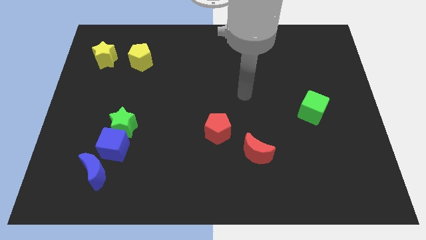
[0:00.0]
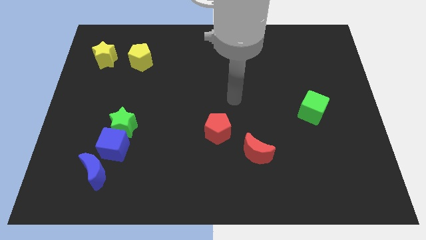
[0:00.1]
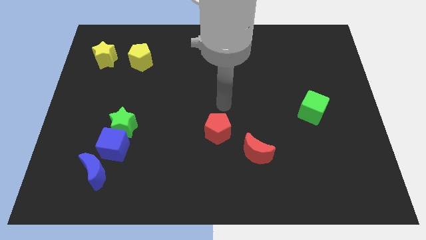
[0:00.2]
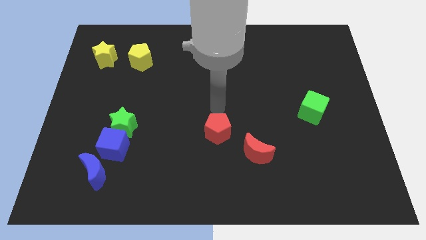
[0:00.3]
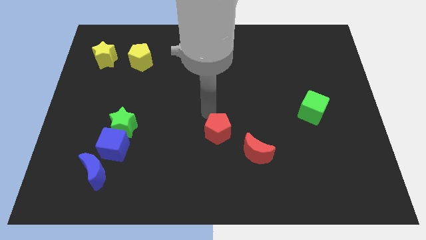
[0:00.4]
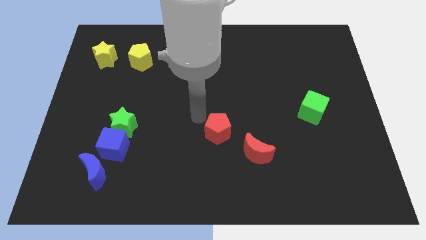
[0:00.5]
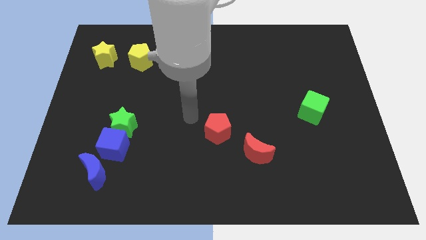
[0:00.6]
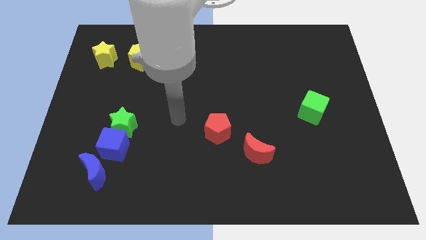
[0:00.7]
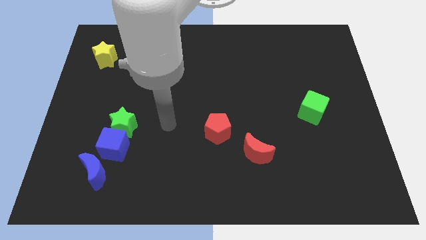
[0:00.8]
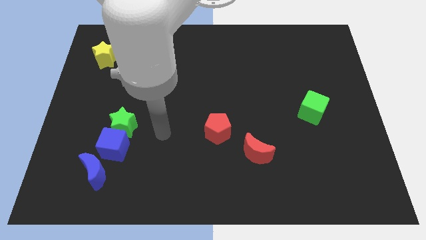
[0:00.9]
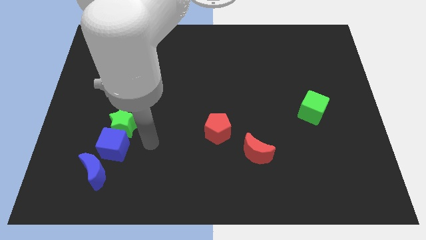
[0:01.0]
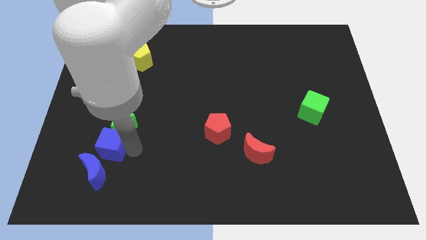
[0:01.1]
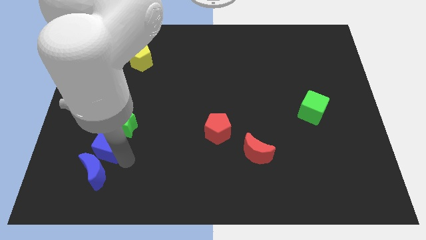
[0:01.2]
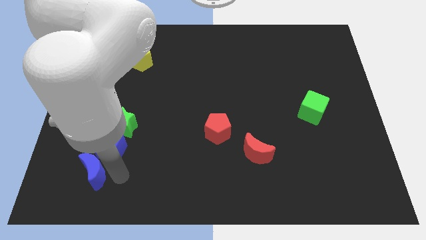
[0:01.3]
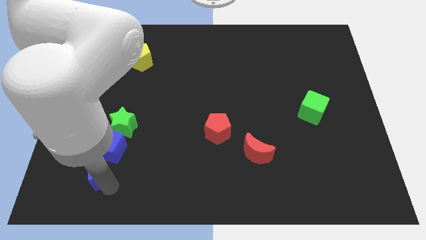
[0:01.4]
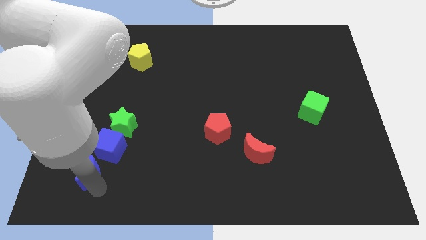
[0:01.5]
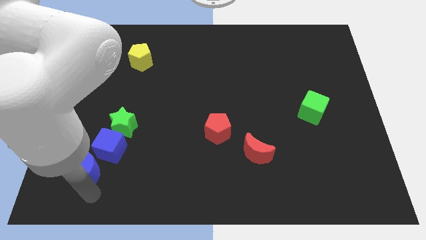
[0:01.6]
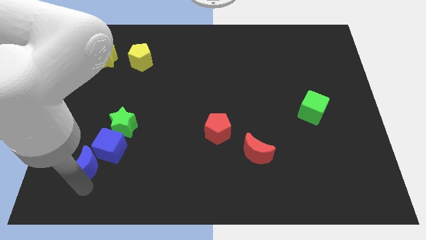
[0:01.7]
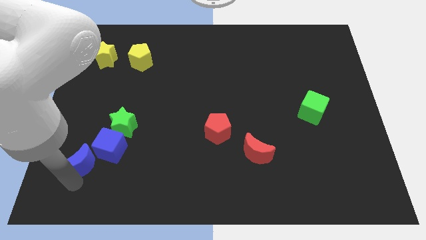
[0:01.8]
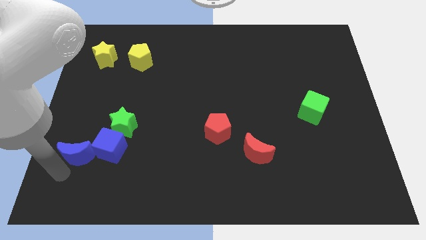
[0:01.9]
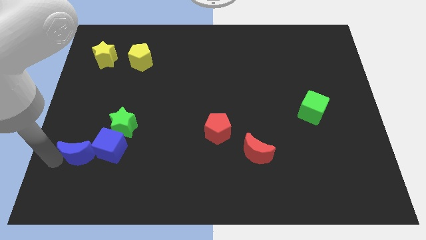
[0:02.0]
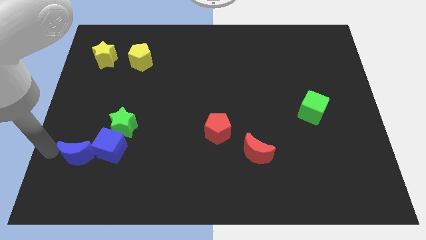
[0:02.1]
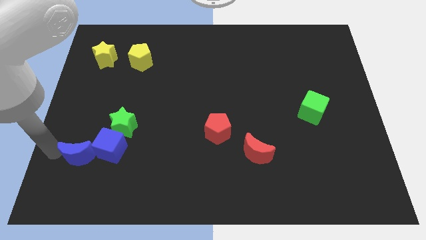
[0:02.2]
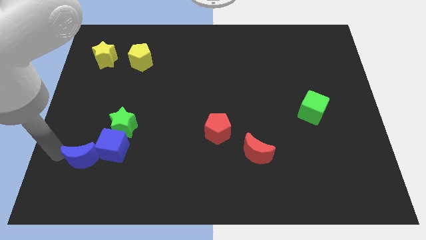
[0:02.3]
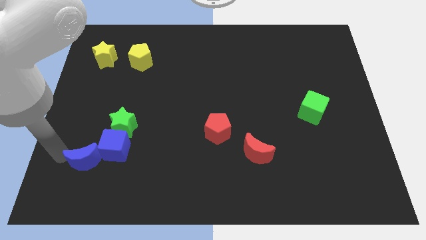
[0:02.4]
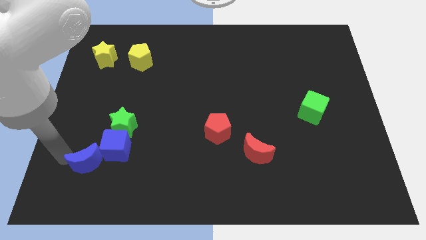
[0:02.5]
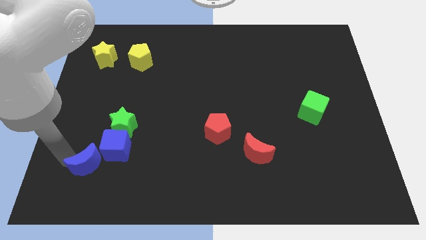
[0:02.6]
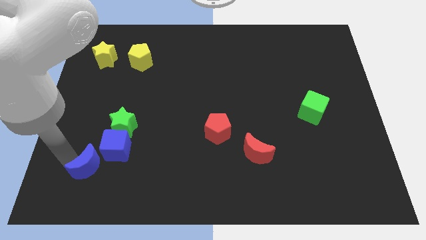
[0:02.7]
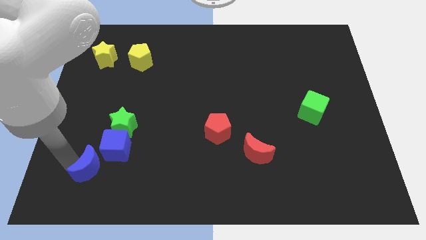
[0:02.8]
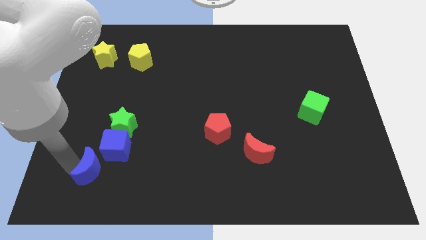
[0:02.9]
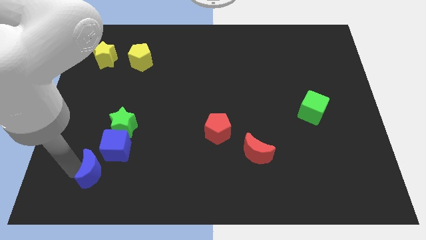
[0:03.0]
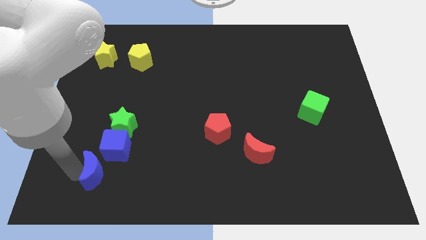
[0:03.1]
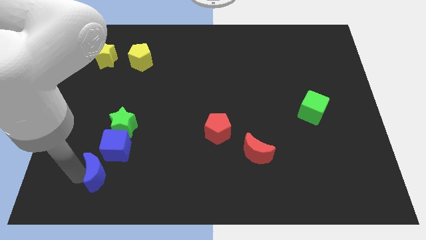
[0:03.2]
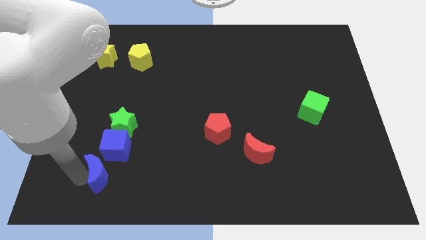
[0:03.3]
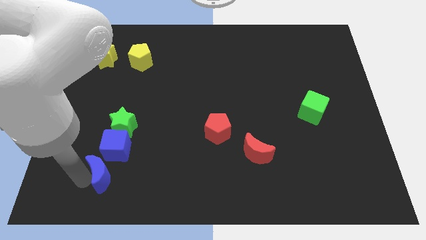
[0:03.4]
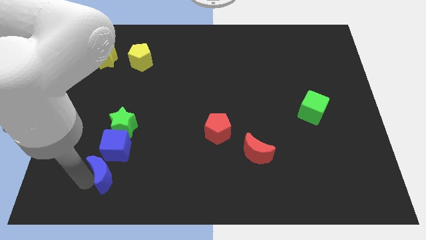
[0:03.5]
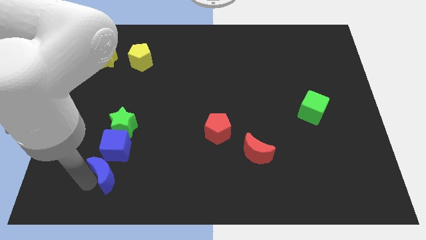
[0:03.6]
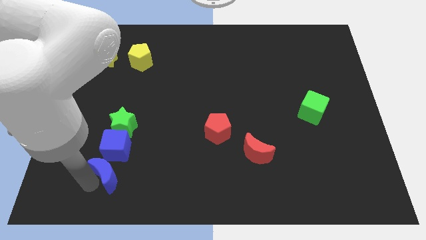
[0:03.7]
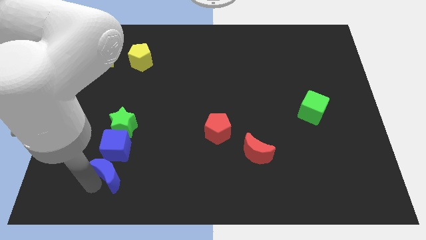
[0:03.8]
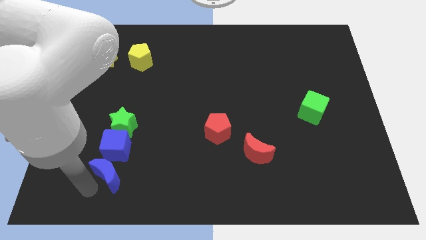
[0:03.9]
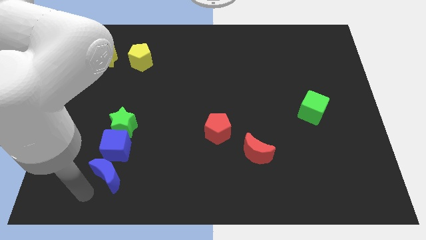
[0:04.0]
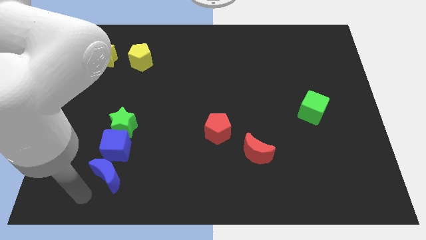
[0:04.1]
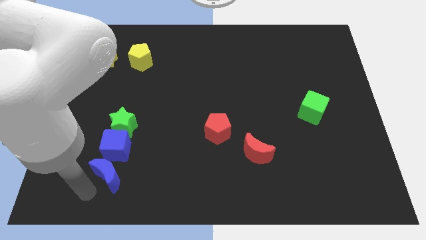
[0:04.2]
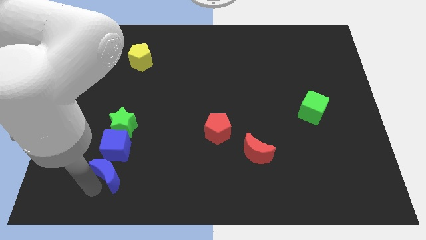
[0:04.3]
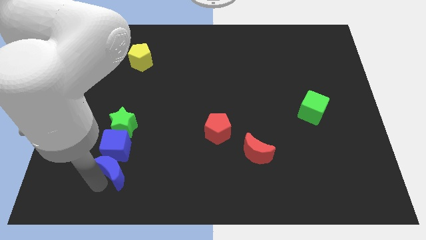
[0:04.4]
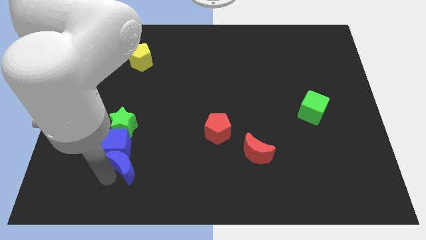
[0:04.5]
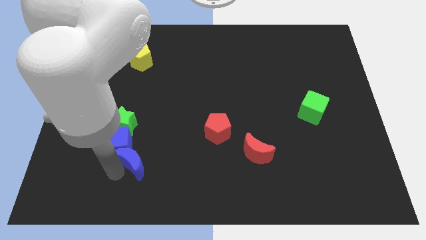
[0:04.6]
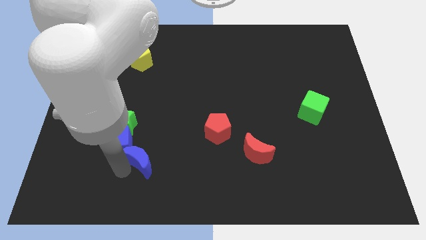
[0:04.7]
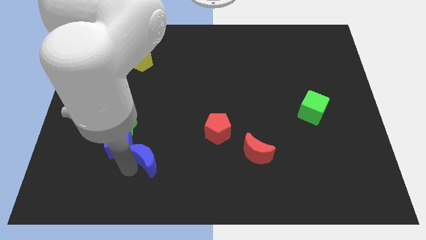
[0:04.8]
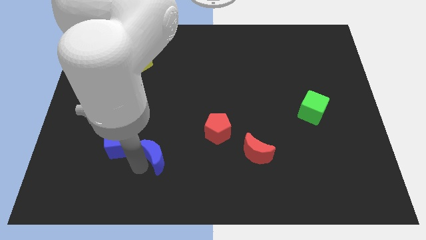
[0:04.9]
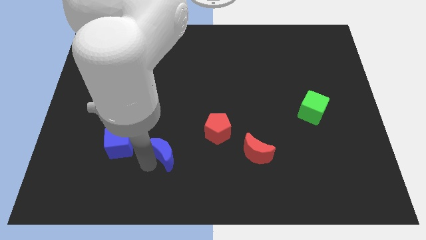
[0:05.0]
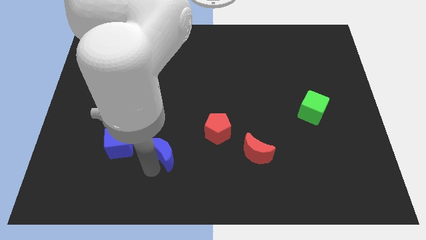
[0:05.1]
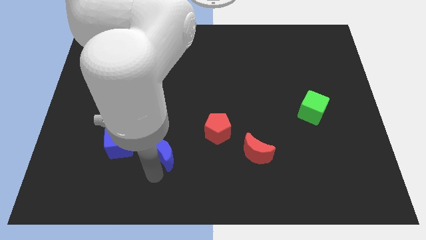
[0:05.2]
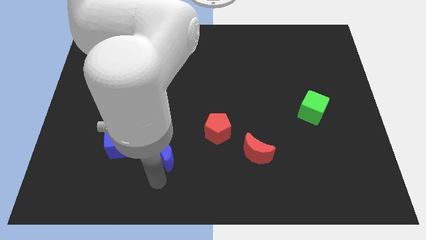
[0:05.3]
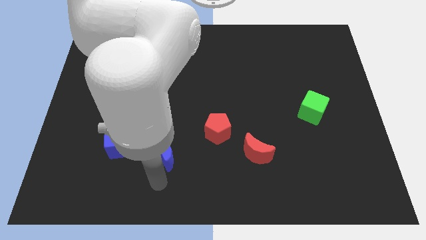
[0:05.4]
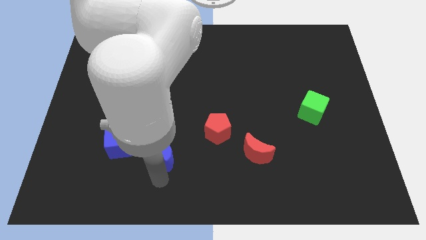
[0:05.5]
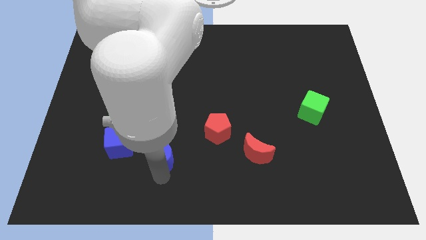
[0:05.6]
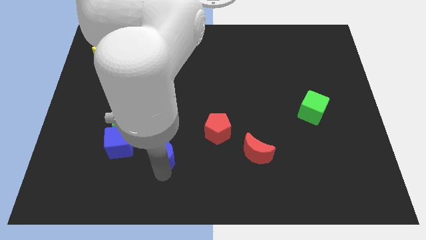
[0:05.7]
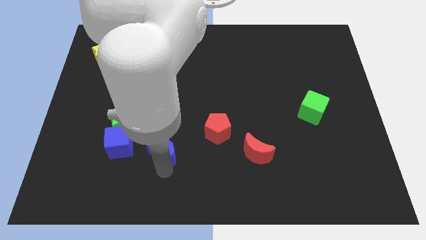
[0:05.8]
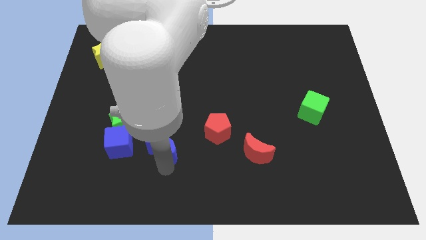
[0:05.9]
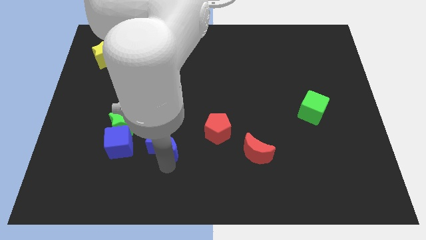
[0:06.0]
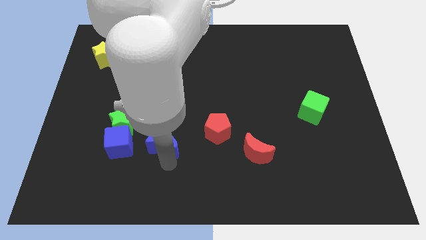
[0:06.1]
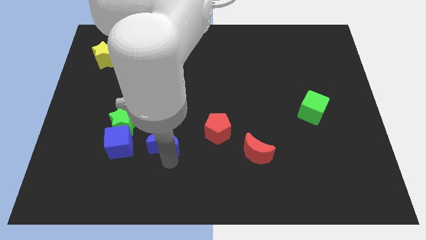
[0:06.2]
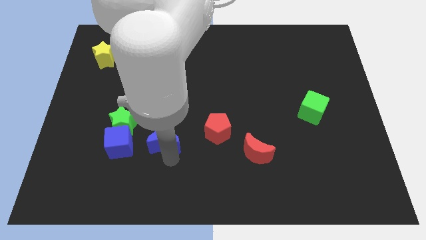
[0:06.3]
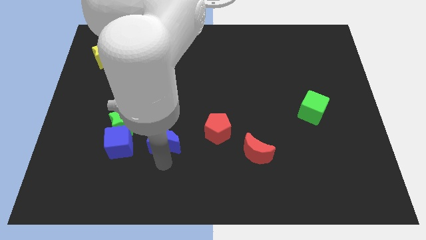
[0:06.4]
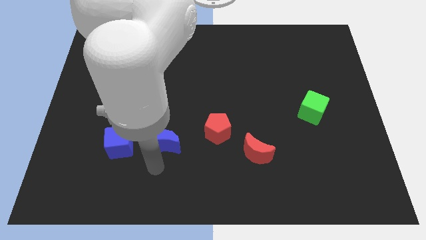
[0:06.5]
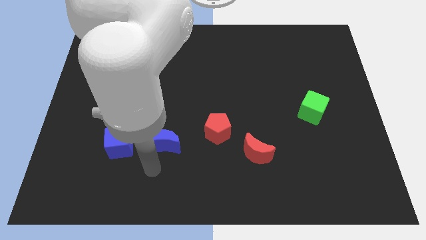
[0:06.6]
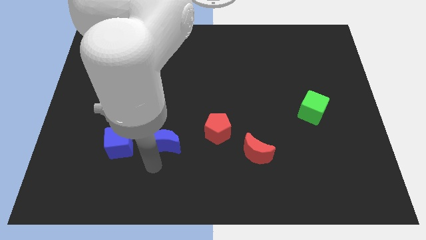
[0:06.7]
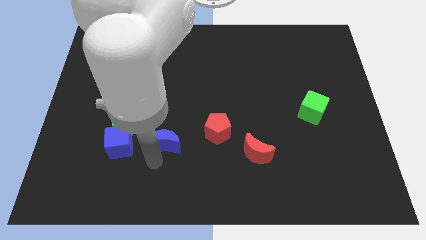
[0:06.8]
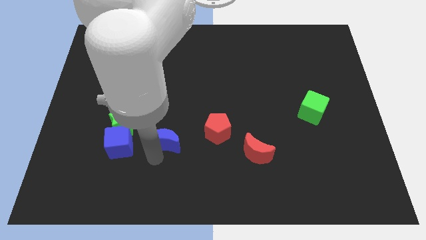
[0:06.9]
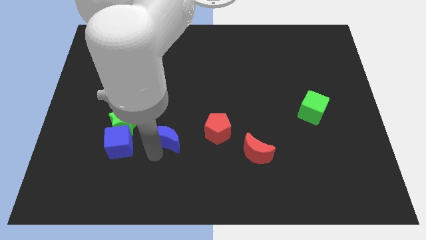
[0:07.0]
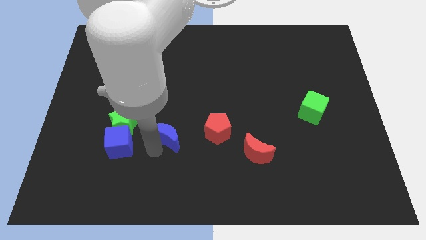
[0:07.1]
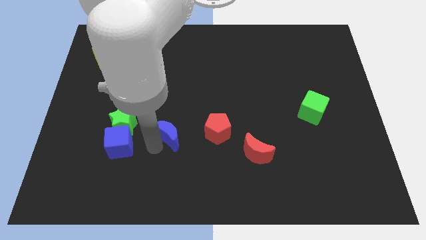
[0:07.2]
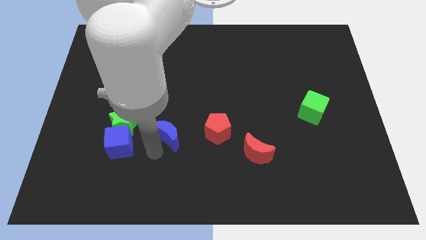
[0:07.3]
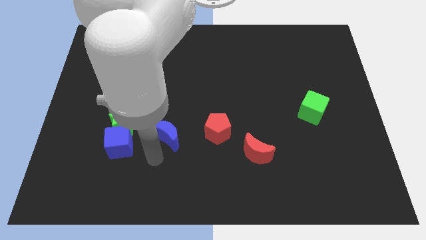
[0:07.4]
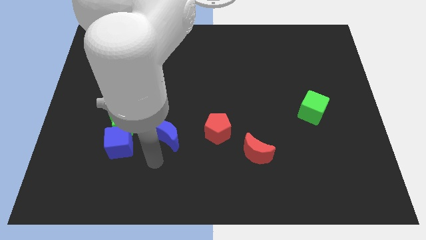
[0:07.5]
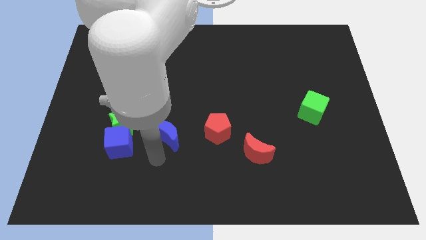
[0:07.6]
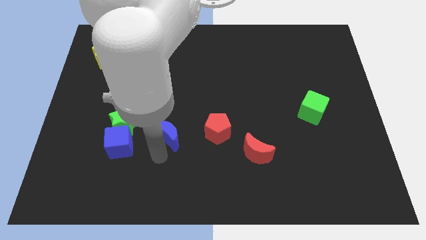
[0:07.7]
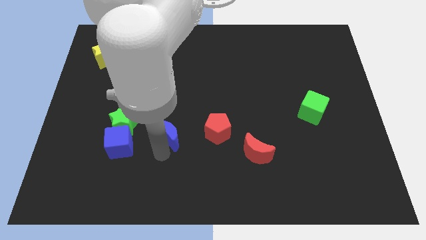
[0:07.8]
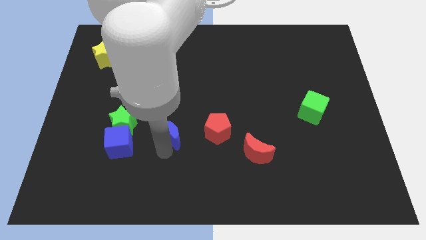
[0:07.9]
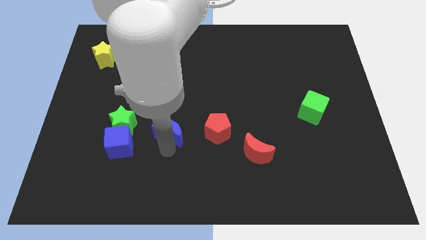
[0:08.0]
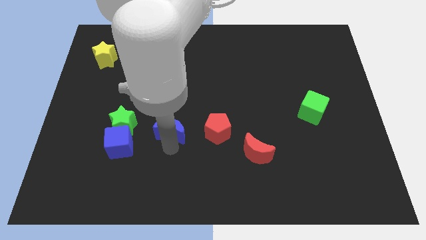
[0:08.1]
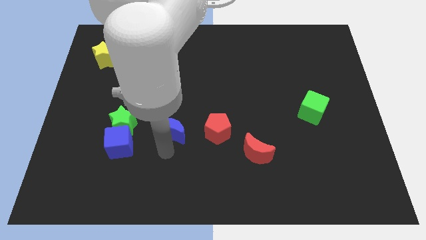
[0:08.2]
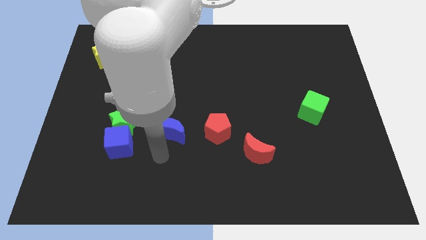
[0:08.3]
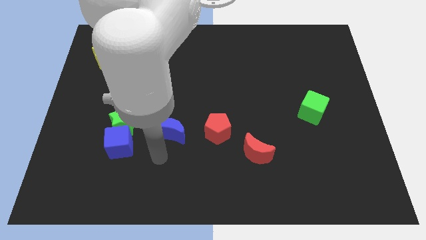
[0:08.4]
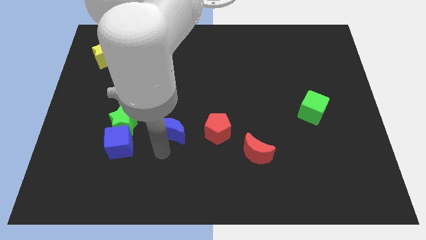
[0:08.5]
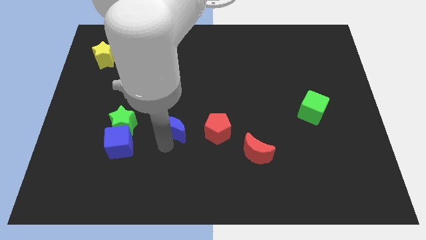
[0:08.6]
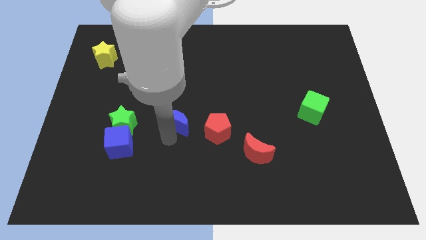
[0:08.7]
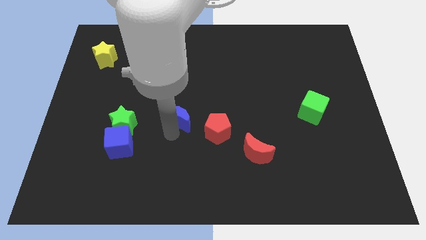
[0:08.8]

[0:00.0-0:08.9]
push the blue moon upwards and to the right diagonally
